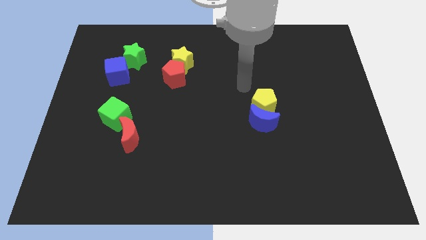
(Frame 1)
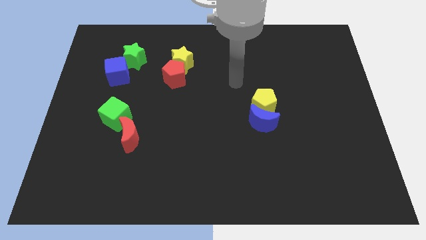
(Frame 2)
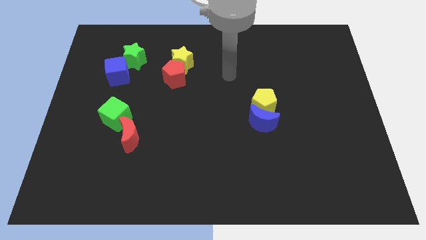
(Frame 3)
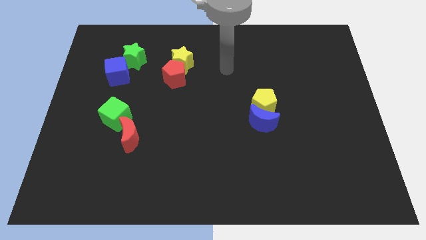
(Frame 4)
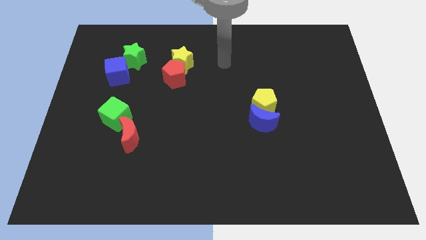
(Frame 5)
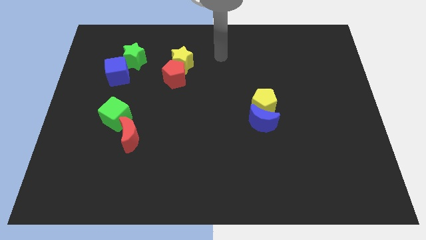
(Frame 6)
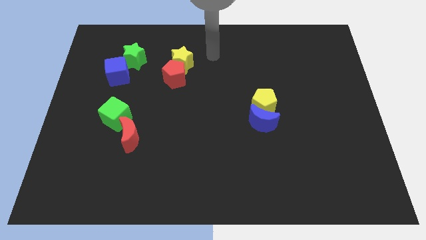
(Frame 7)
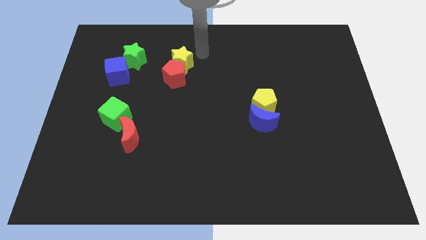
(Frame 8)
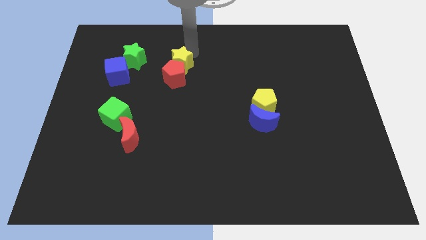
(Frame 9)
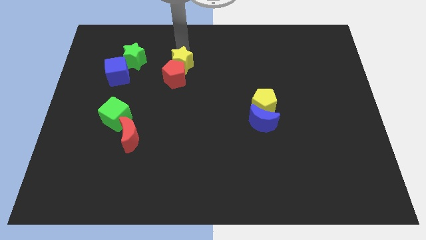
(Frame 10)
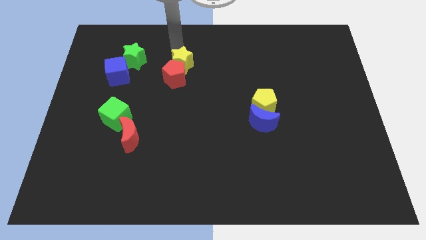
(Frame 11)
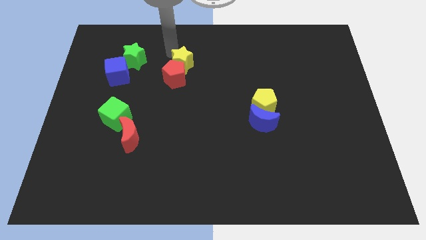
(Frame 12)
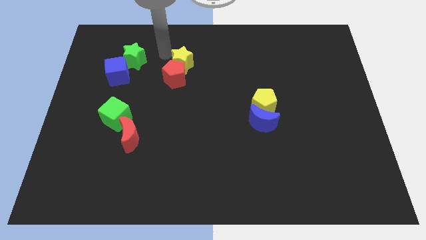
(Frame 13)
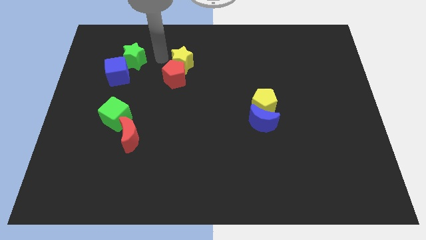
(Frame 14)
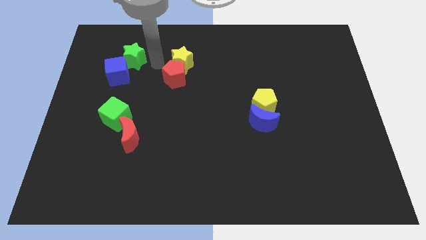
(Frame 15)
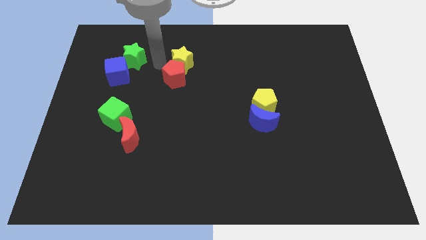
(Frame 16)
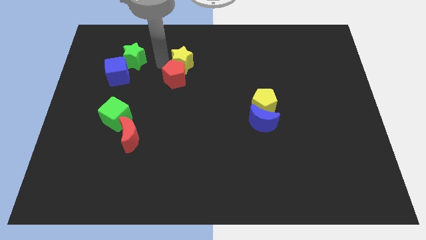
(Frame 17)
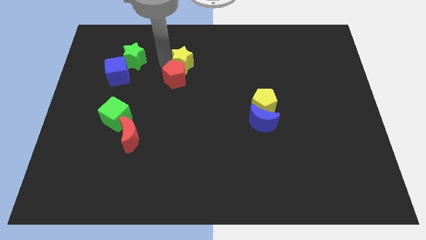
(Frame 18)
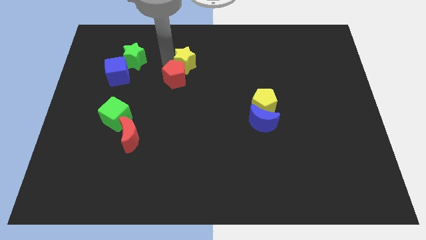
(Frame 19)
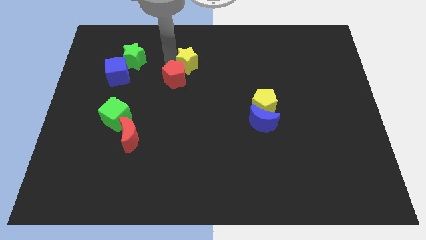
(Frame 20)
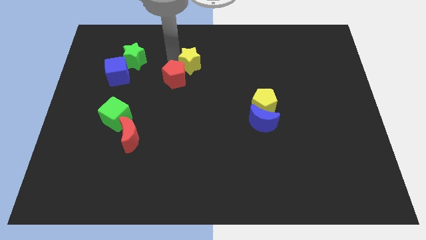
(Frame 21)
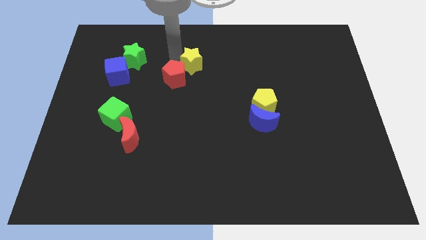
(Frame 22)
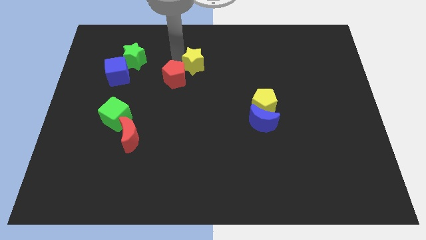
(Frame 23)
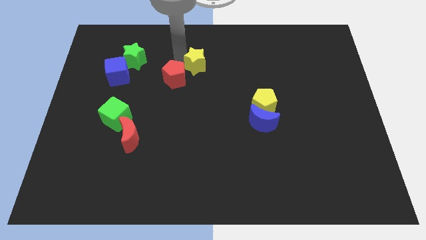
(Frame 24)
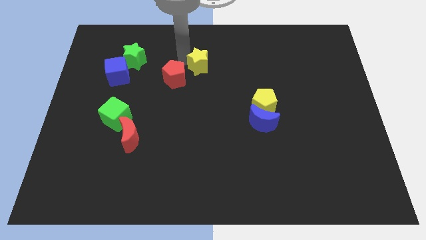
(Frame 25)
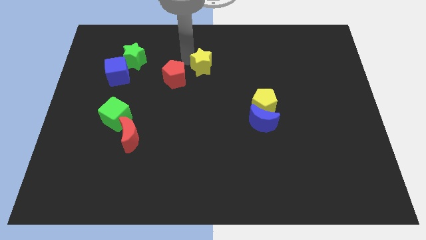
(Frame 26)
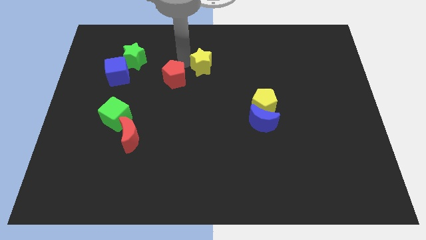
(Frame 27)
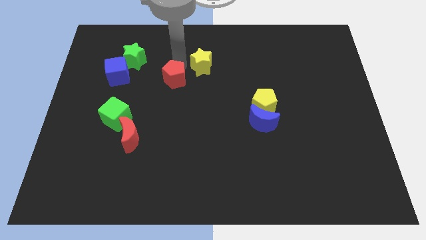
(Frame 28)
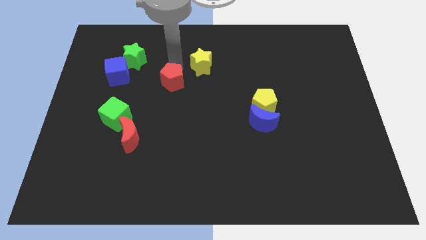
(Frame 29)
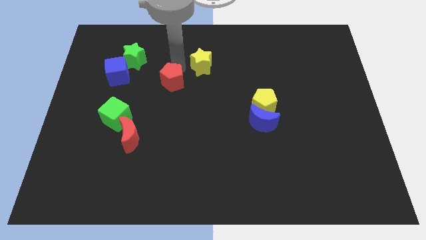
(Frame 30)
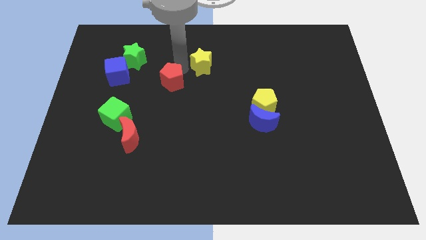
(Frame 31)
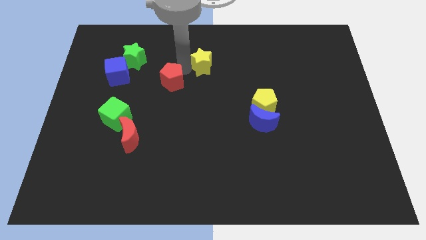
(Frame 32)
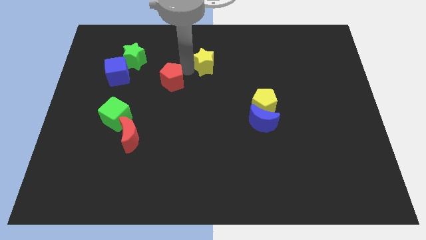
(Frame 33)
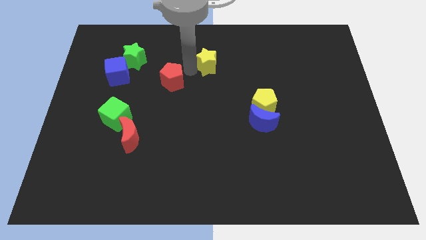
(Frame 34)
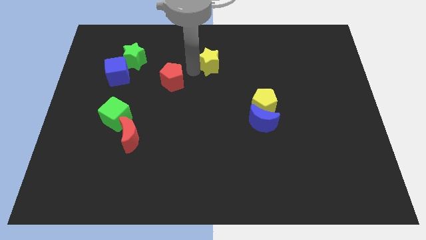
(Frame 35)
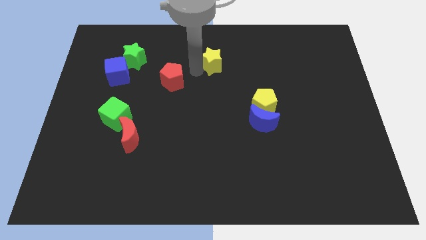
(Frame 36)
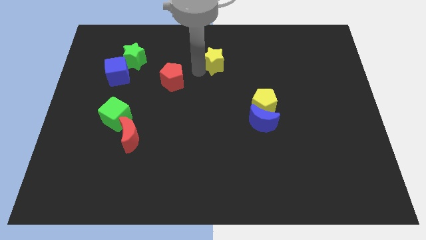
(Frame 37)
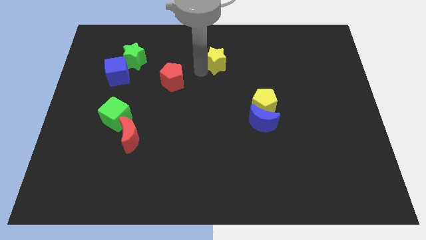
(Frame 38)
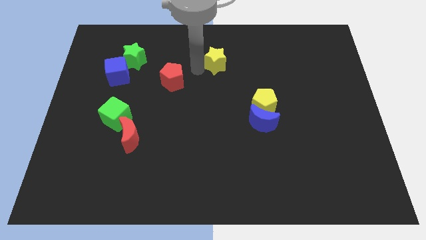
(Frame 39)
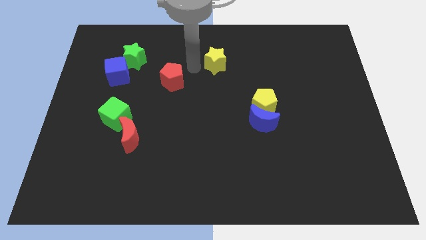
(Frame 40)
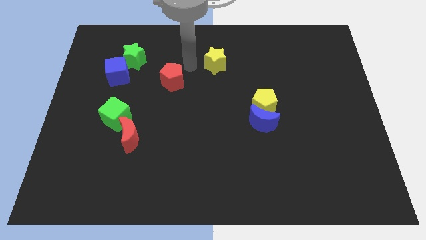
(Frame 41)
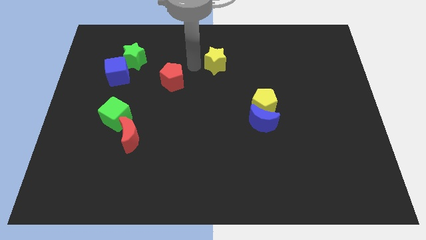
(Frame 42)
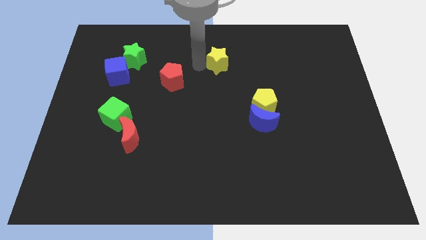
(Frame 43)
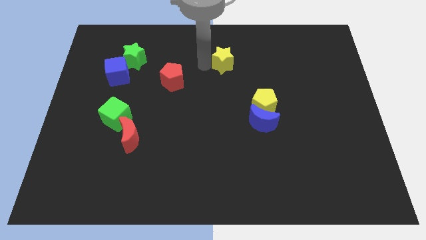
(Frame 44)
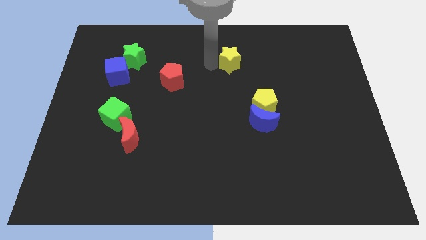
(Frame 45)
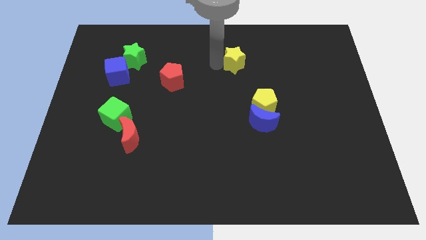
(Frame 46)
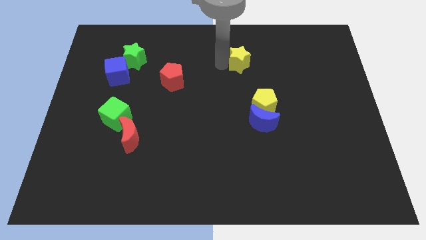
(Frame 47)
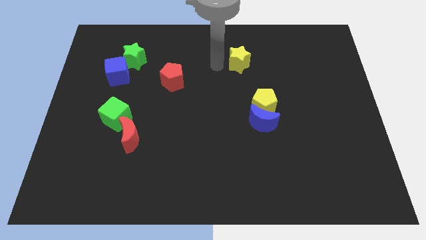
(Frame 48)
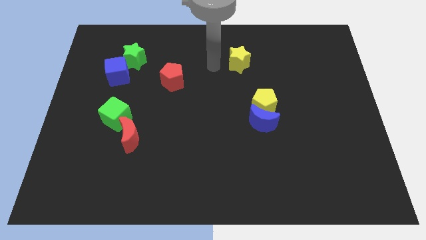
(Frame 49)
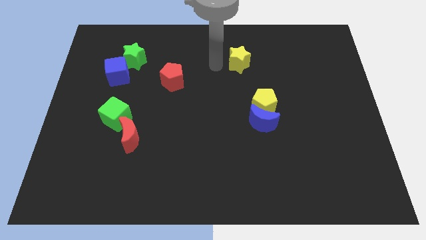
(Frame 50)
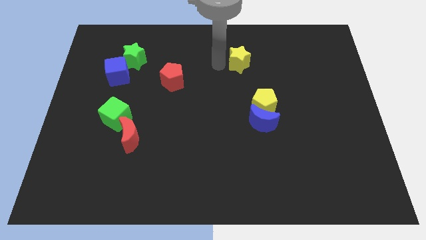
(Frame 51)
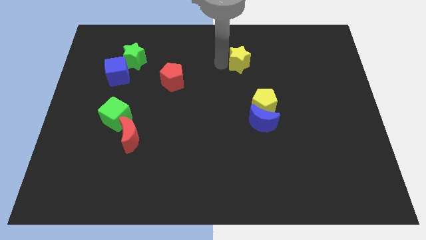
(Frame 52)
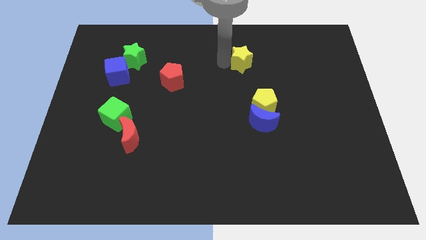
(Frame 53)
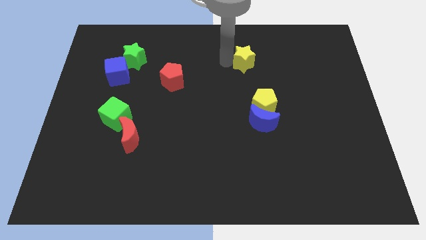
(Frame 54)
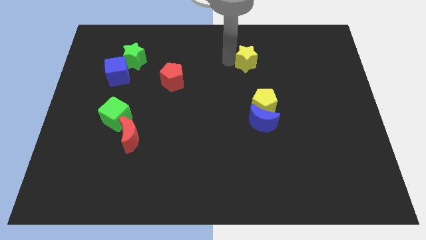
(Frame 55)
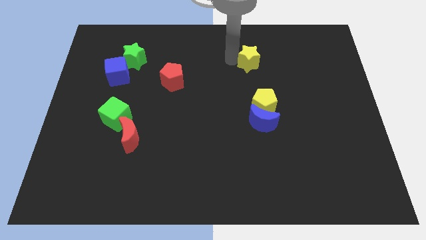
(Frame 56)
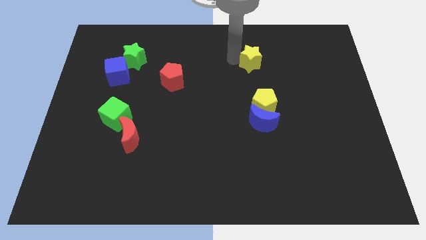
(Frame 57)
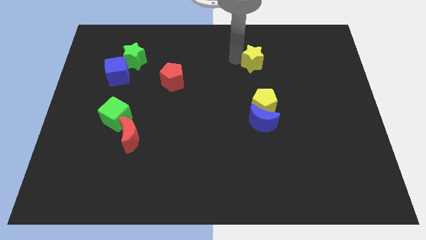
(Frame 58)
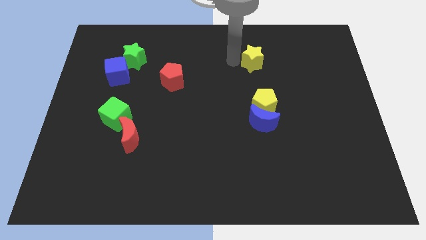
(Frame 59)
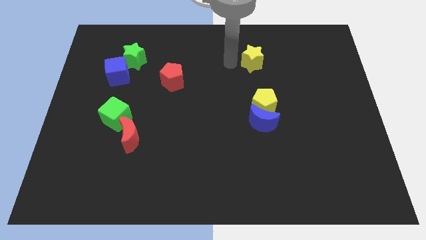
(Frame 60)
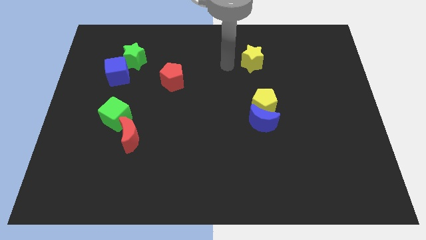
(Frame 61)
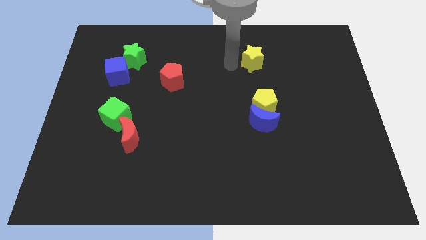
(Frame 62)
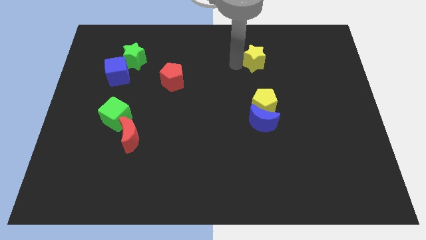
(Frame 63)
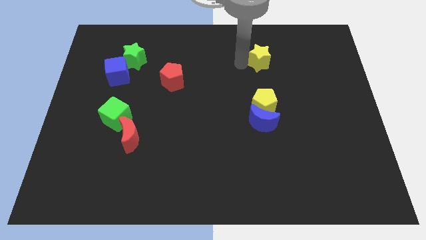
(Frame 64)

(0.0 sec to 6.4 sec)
slide the yellow star right

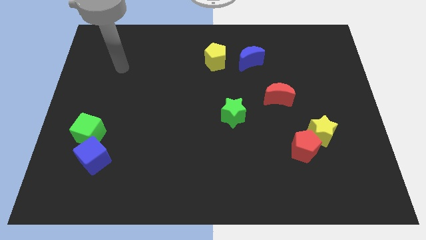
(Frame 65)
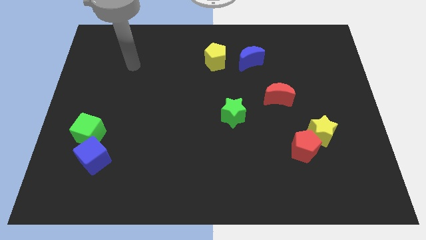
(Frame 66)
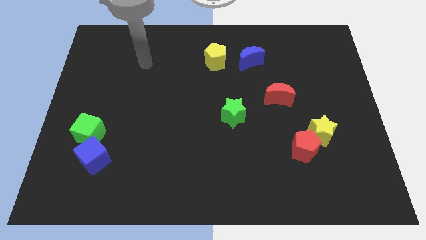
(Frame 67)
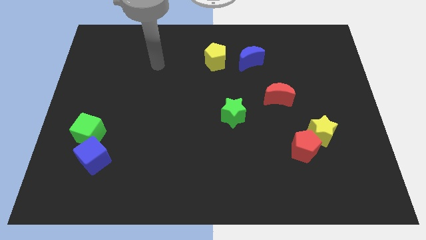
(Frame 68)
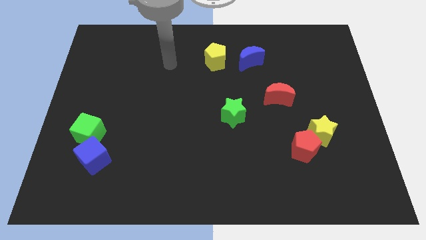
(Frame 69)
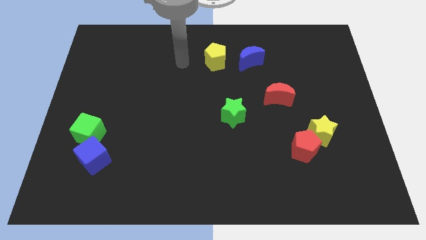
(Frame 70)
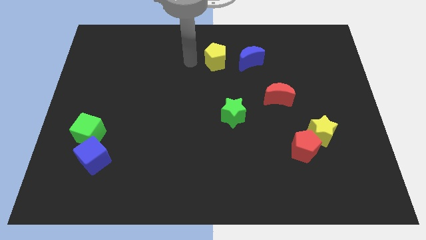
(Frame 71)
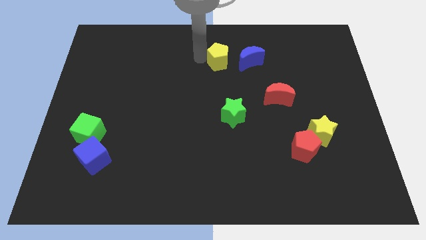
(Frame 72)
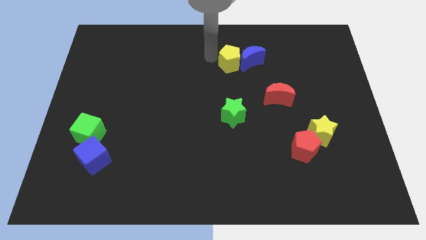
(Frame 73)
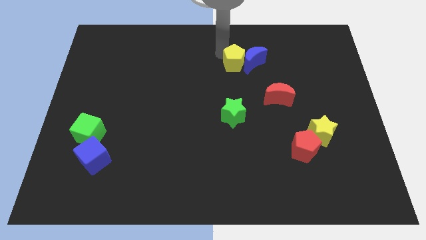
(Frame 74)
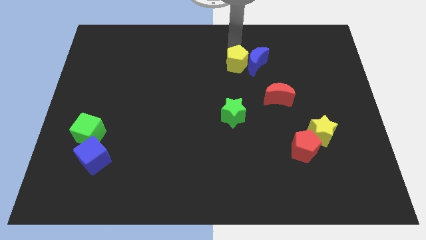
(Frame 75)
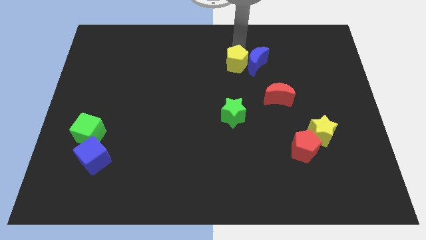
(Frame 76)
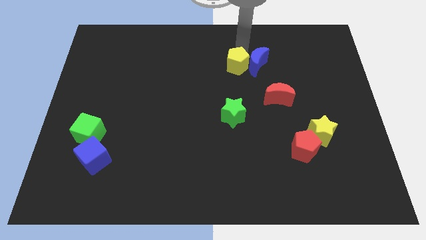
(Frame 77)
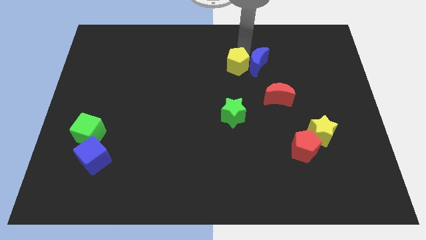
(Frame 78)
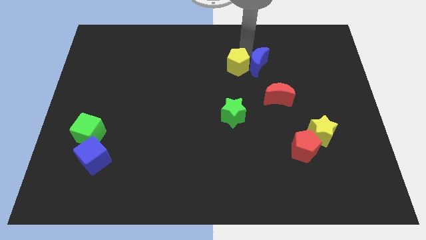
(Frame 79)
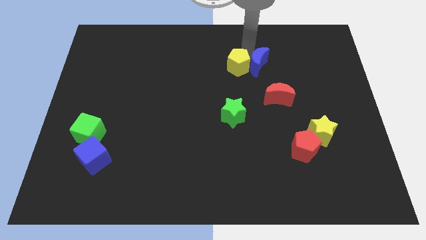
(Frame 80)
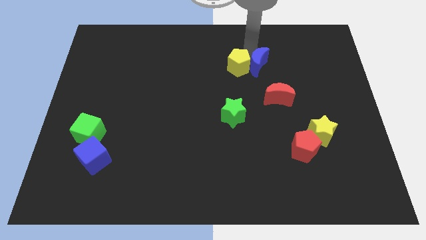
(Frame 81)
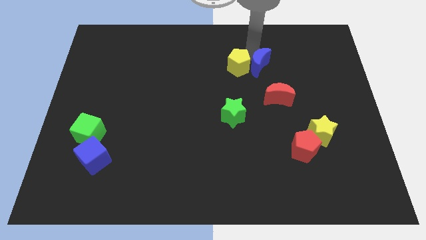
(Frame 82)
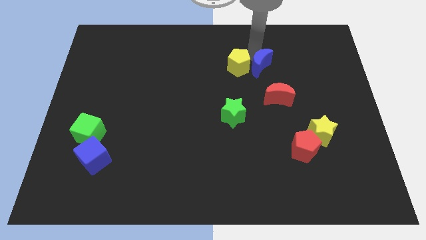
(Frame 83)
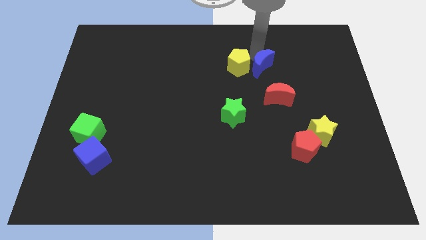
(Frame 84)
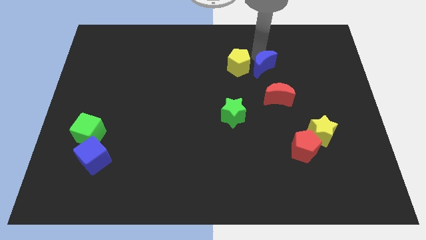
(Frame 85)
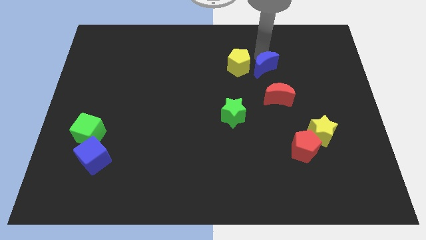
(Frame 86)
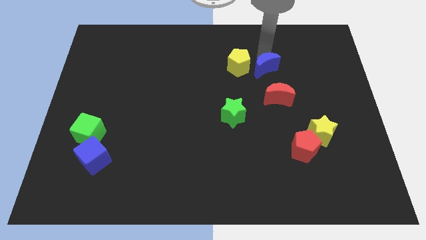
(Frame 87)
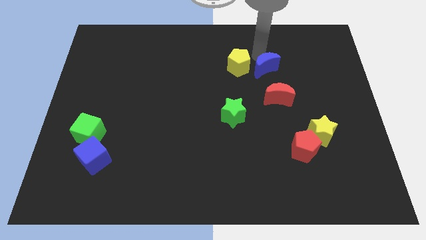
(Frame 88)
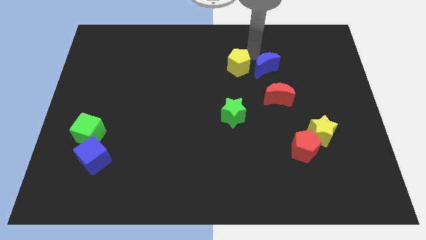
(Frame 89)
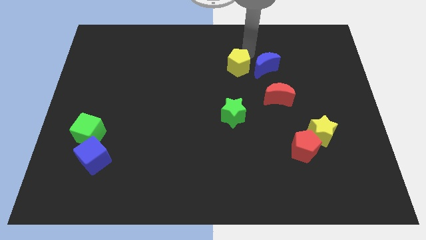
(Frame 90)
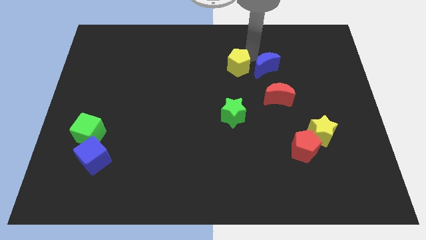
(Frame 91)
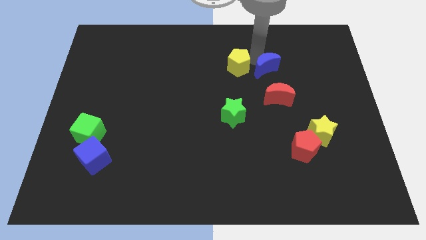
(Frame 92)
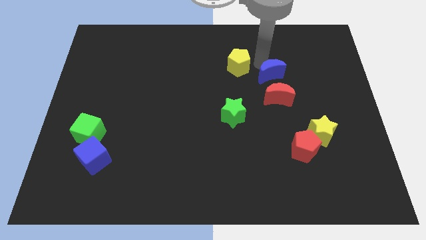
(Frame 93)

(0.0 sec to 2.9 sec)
slightly move the blue moon downwards and to the right diagonally
